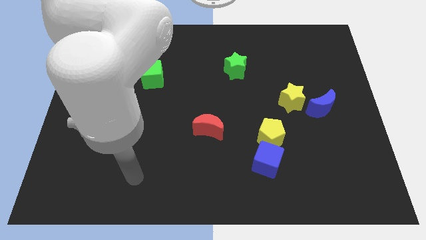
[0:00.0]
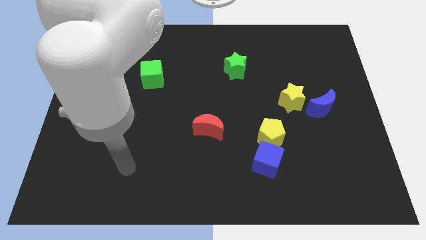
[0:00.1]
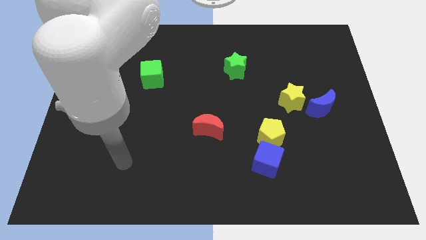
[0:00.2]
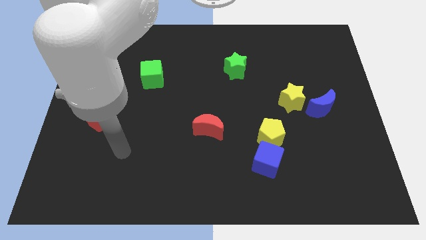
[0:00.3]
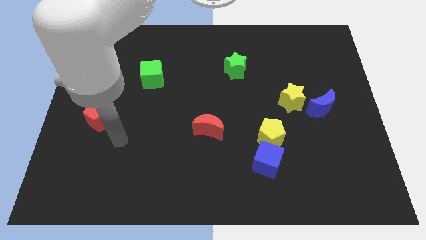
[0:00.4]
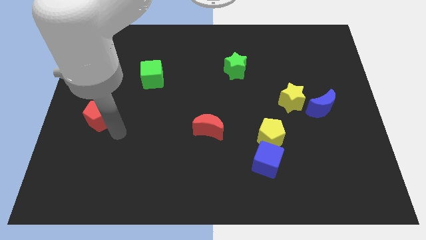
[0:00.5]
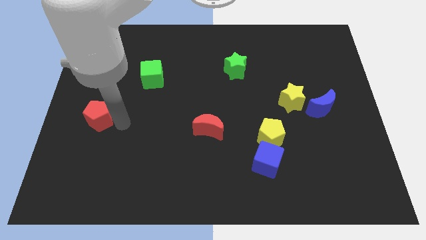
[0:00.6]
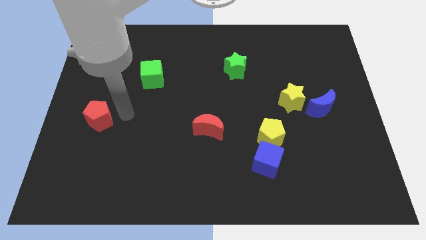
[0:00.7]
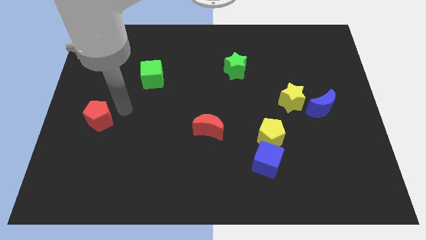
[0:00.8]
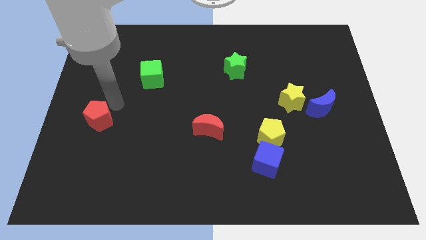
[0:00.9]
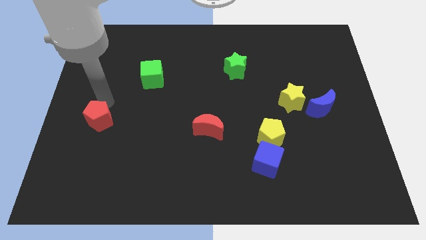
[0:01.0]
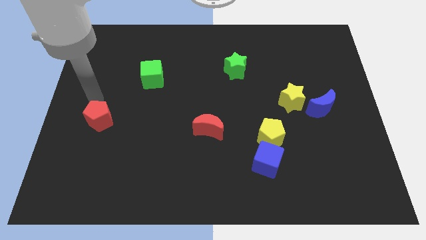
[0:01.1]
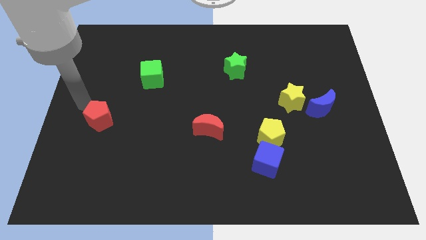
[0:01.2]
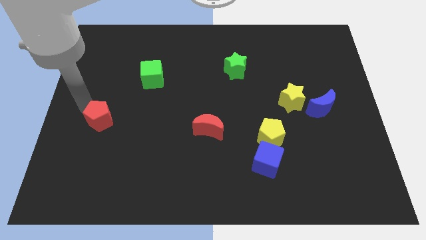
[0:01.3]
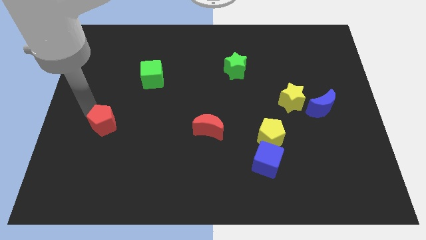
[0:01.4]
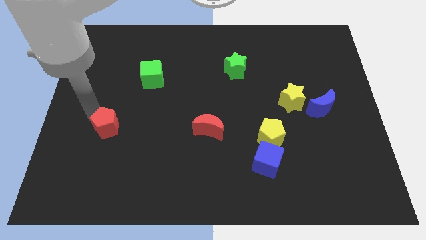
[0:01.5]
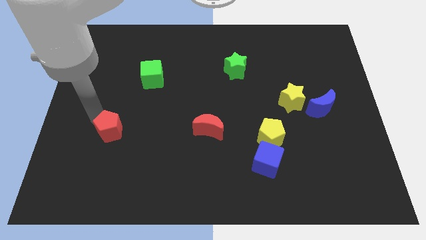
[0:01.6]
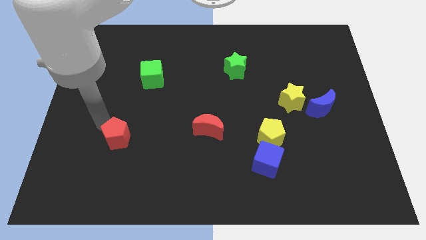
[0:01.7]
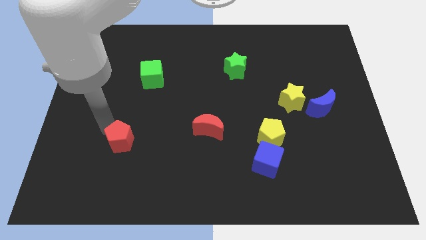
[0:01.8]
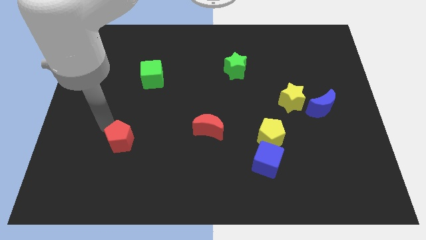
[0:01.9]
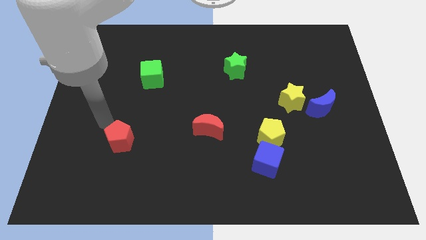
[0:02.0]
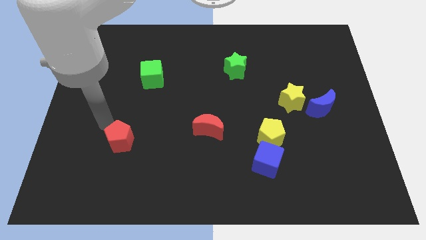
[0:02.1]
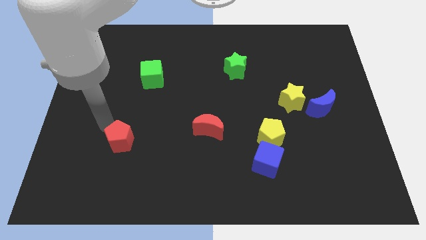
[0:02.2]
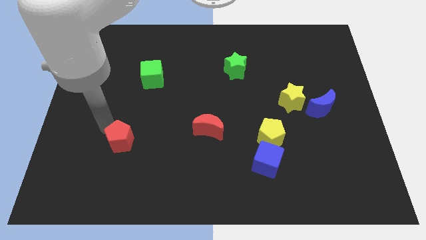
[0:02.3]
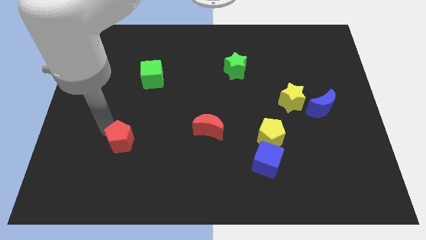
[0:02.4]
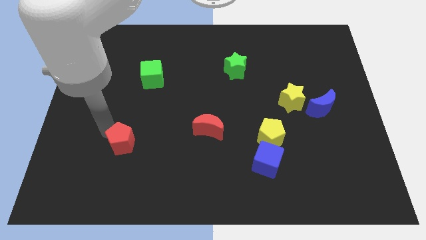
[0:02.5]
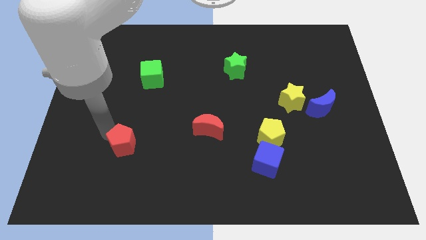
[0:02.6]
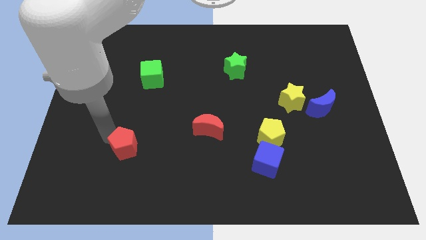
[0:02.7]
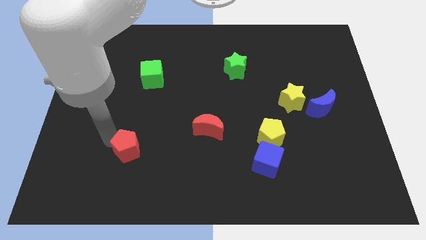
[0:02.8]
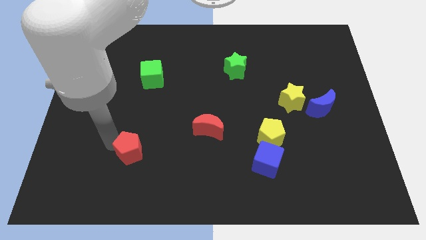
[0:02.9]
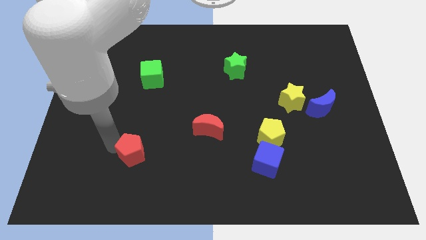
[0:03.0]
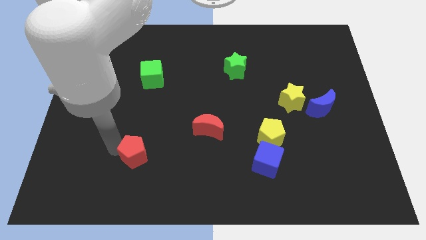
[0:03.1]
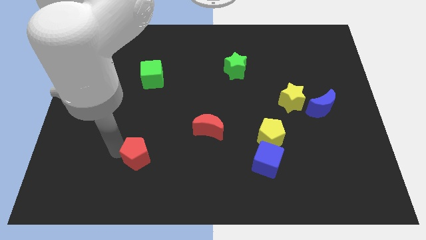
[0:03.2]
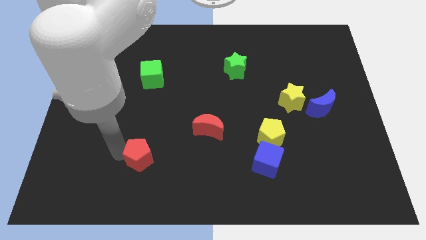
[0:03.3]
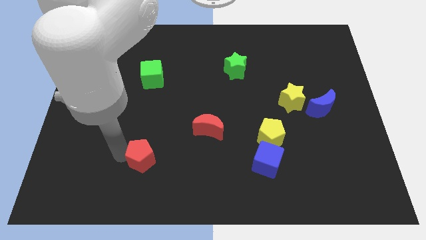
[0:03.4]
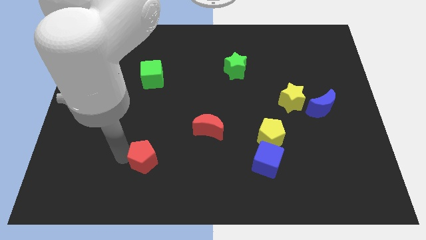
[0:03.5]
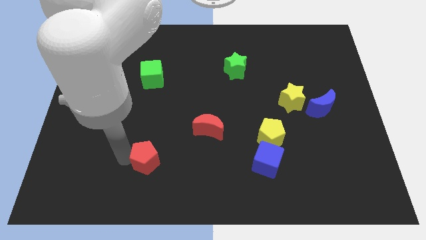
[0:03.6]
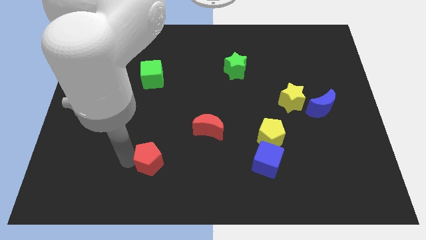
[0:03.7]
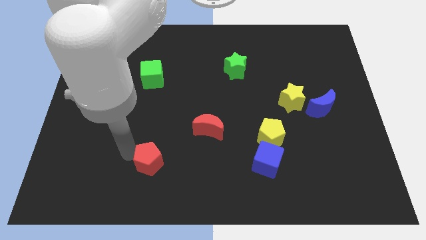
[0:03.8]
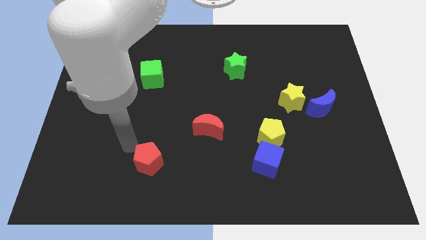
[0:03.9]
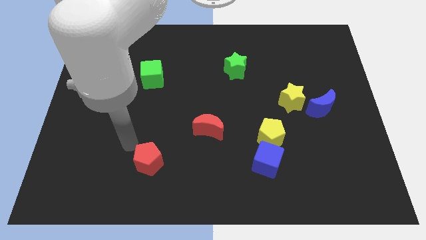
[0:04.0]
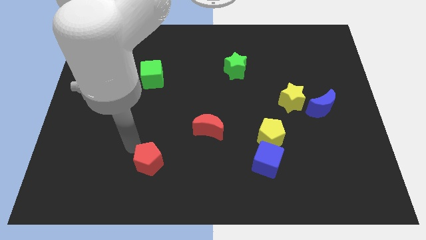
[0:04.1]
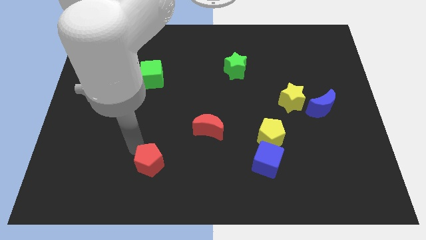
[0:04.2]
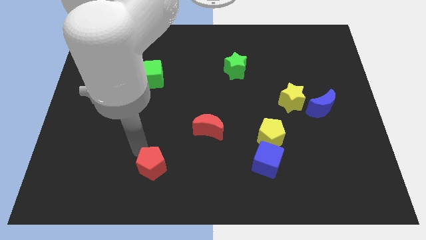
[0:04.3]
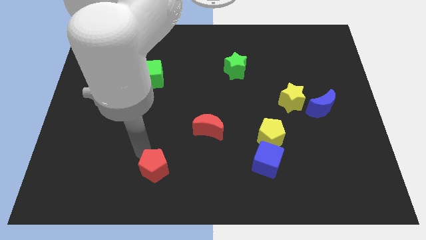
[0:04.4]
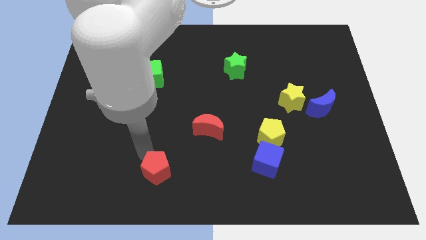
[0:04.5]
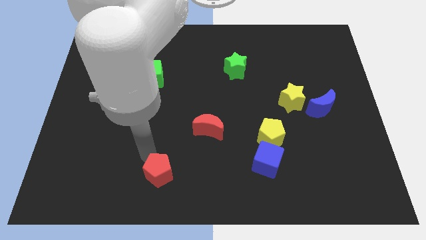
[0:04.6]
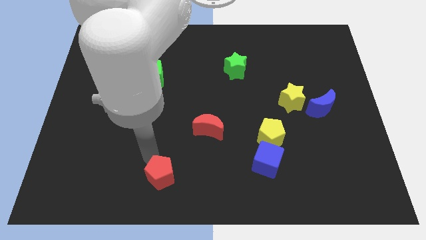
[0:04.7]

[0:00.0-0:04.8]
move the red pentagon to the bottom side

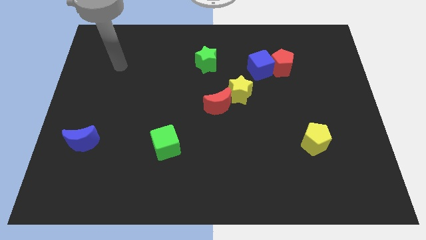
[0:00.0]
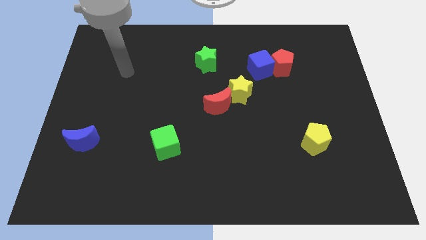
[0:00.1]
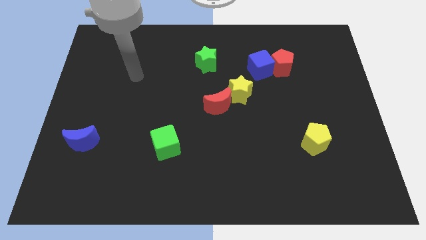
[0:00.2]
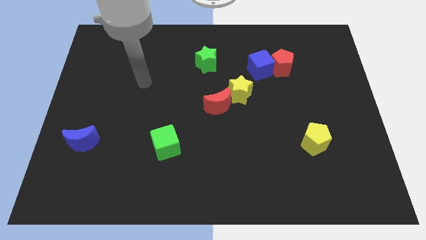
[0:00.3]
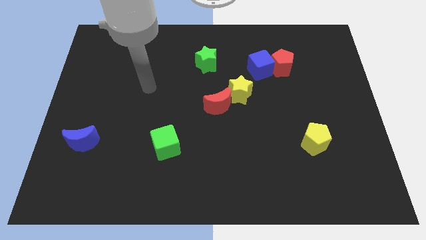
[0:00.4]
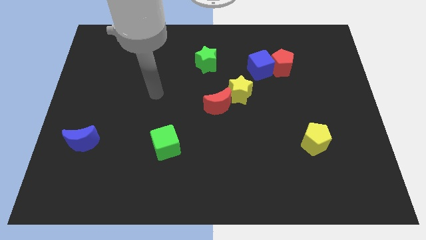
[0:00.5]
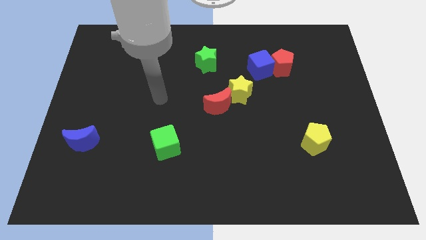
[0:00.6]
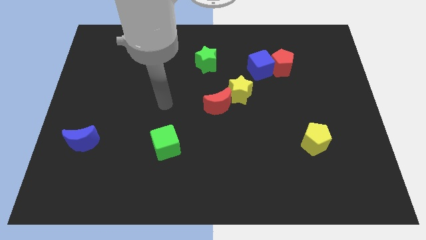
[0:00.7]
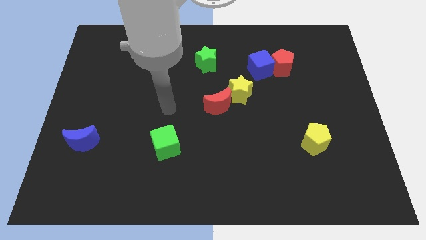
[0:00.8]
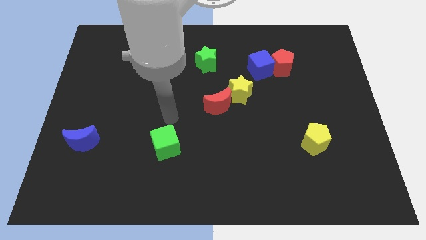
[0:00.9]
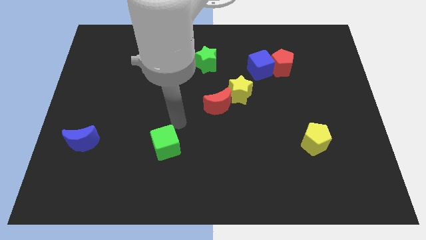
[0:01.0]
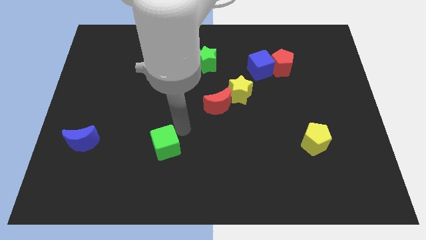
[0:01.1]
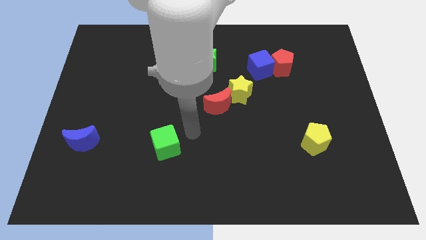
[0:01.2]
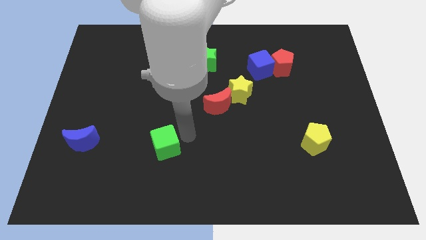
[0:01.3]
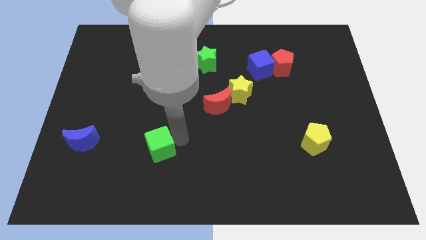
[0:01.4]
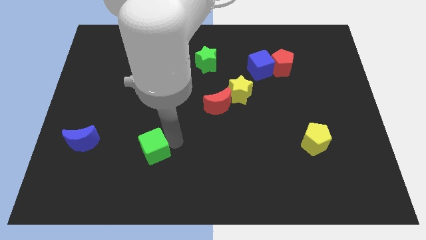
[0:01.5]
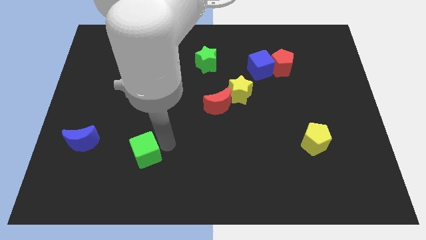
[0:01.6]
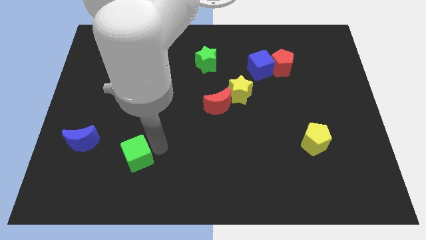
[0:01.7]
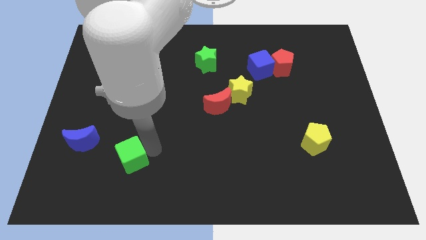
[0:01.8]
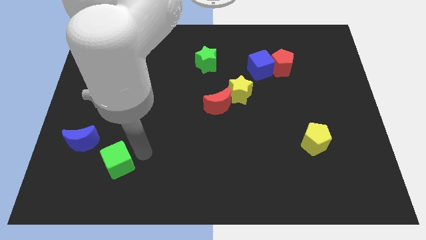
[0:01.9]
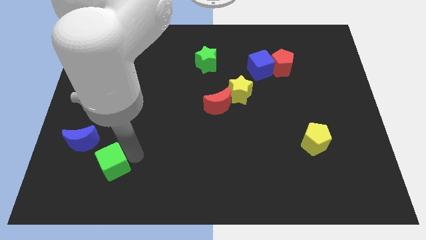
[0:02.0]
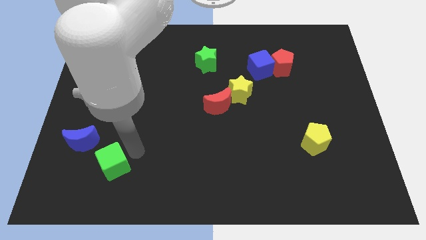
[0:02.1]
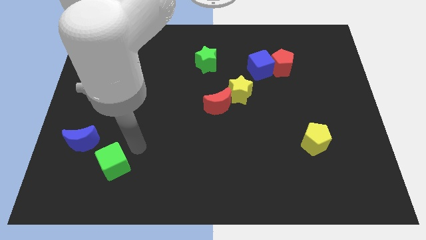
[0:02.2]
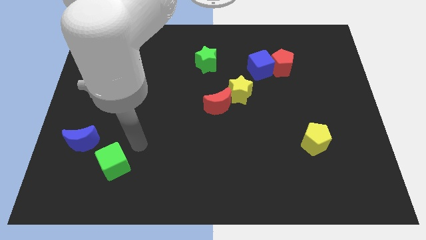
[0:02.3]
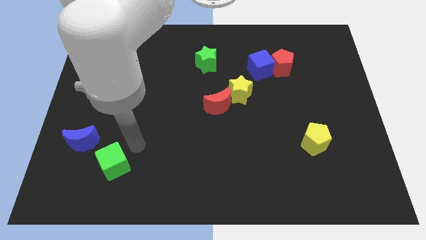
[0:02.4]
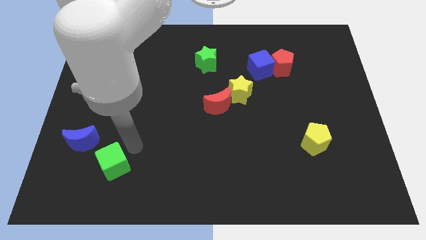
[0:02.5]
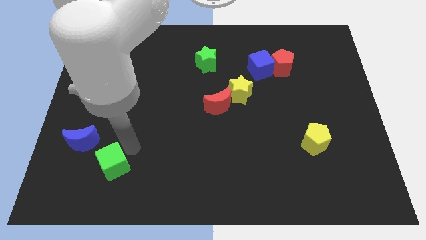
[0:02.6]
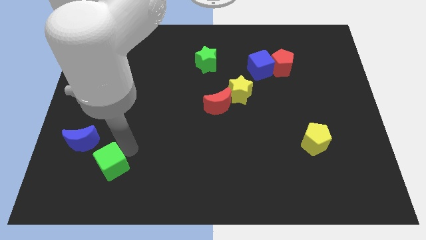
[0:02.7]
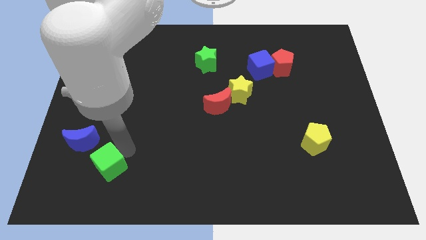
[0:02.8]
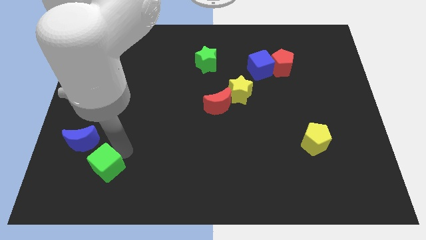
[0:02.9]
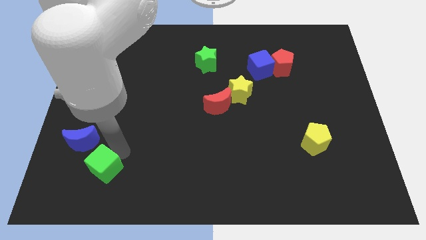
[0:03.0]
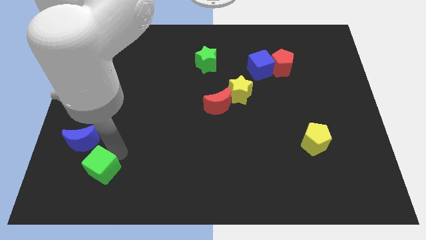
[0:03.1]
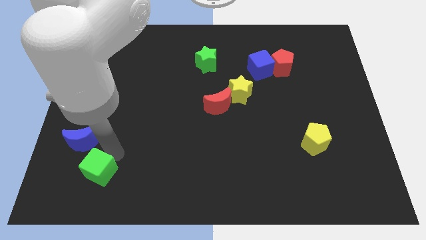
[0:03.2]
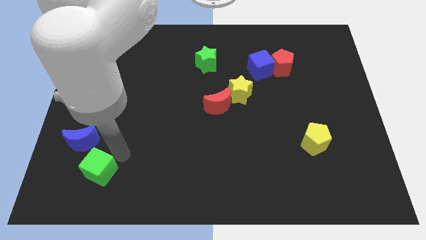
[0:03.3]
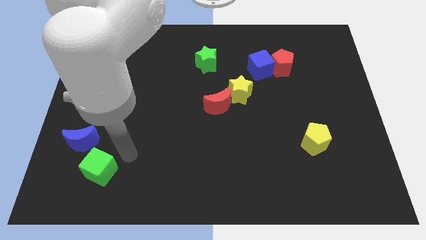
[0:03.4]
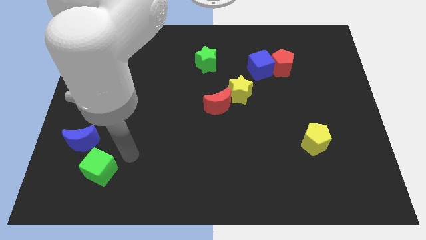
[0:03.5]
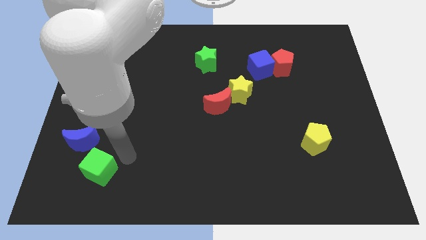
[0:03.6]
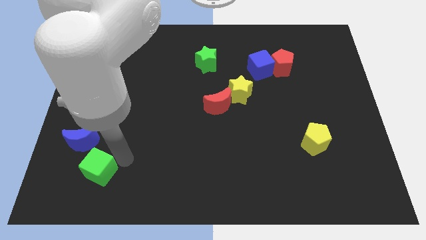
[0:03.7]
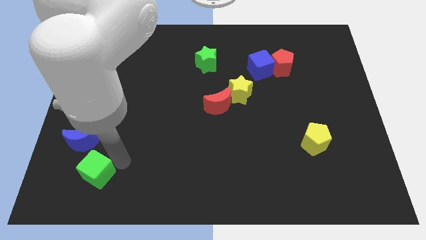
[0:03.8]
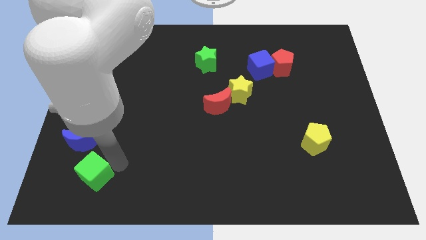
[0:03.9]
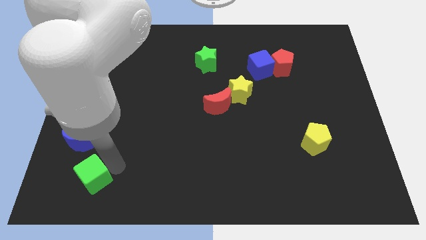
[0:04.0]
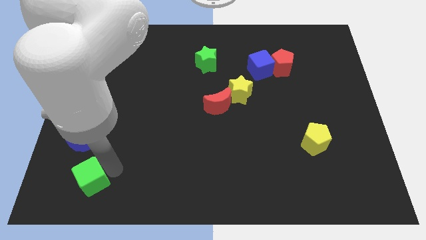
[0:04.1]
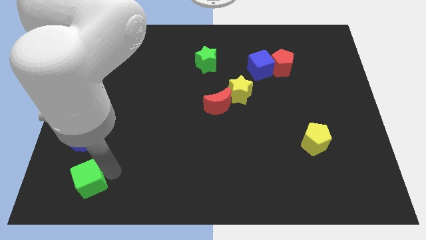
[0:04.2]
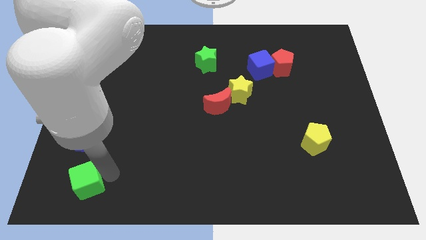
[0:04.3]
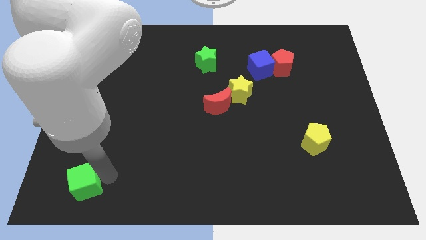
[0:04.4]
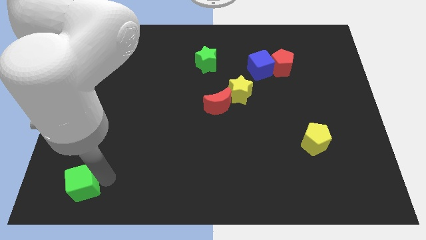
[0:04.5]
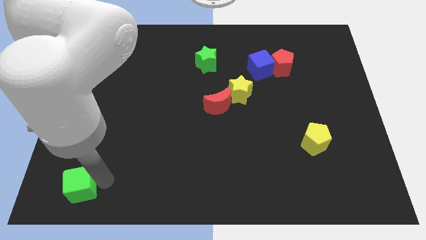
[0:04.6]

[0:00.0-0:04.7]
push the green cube to the bottom left corner
